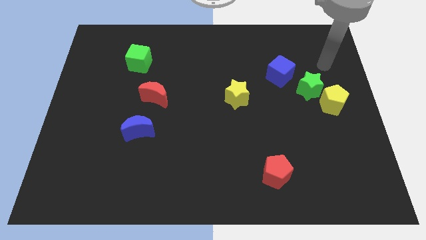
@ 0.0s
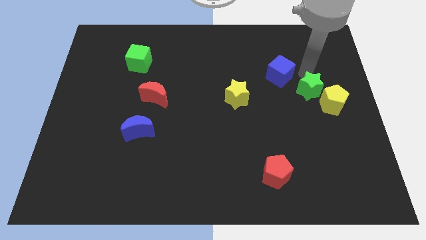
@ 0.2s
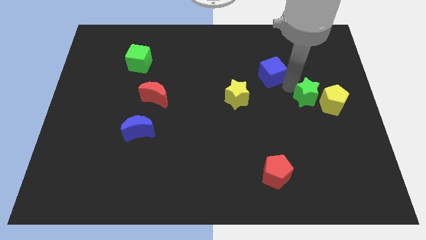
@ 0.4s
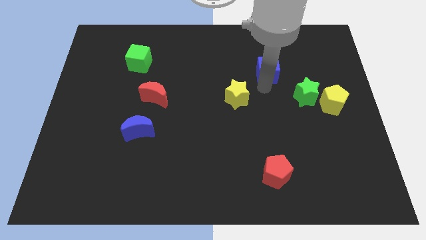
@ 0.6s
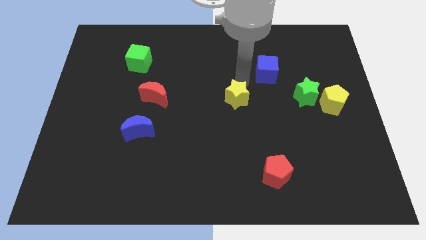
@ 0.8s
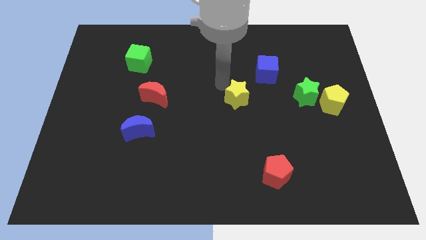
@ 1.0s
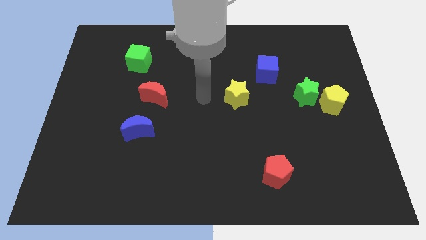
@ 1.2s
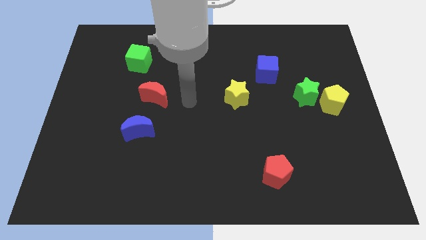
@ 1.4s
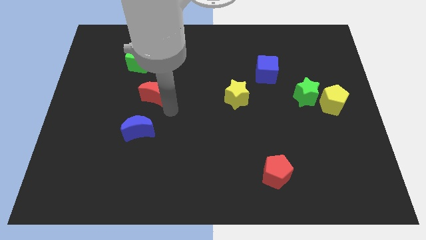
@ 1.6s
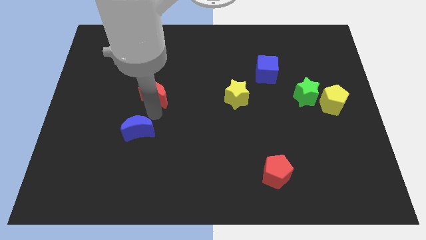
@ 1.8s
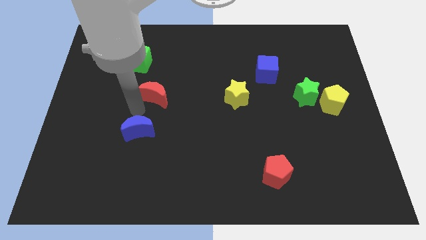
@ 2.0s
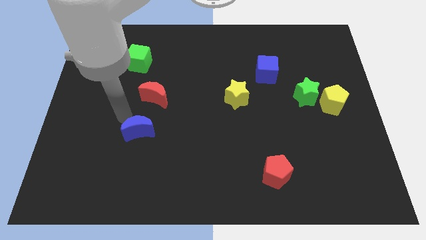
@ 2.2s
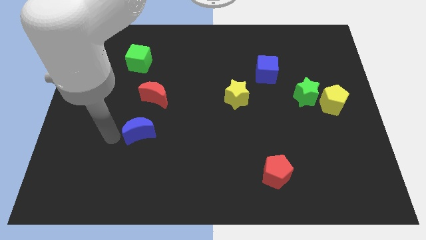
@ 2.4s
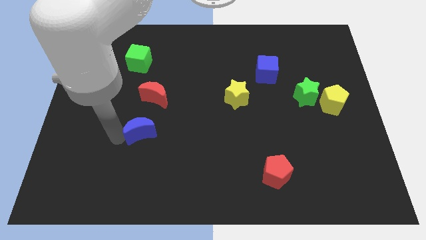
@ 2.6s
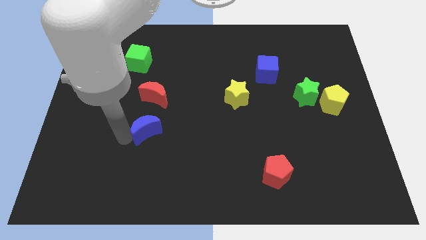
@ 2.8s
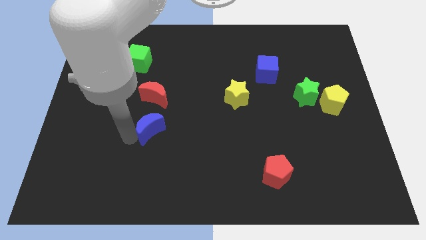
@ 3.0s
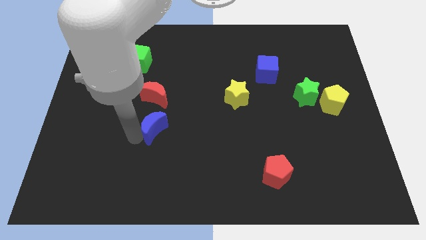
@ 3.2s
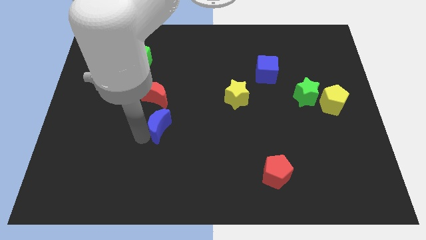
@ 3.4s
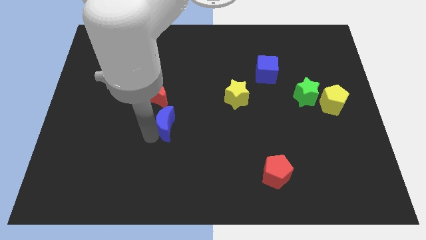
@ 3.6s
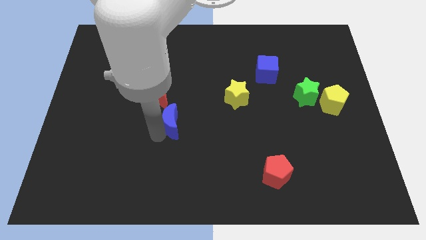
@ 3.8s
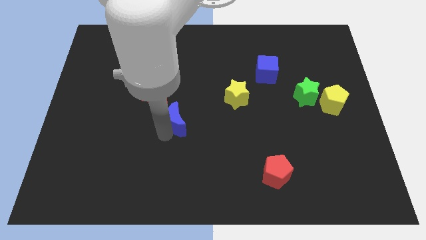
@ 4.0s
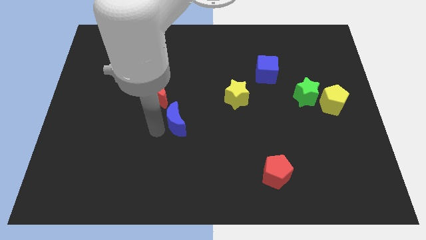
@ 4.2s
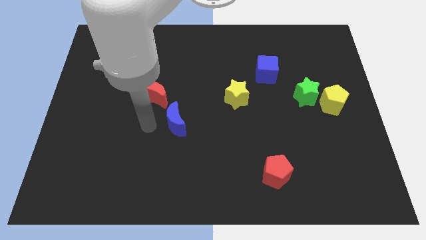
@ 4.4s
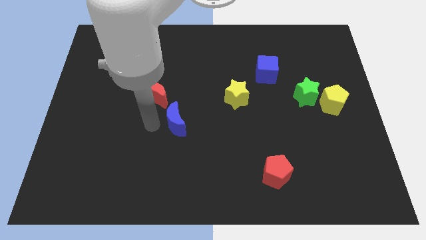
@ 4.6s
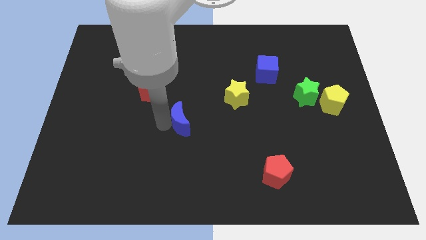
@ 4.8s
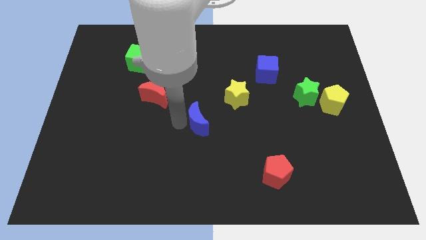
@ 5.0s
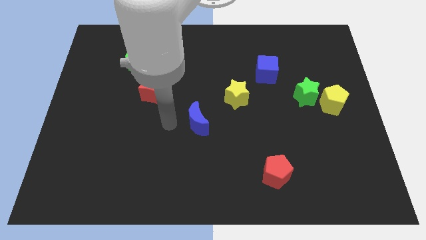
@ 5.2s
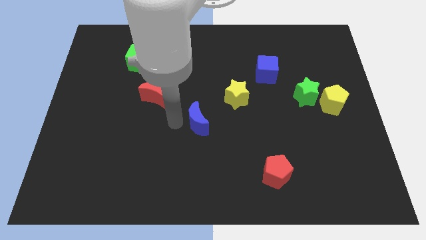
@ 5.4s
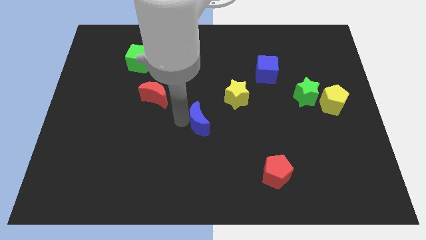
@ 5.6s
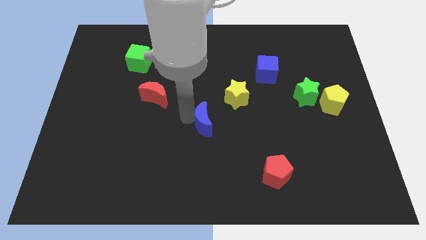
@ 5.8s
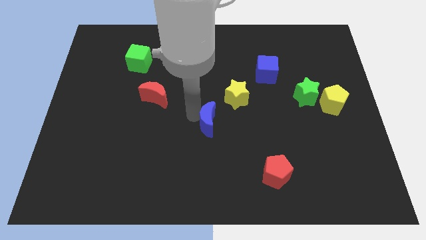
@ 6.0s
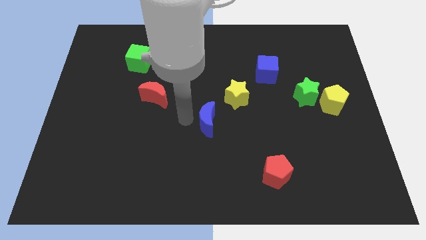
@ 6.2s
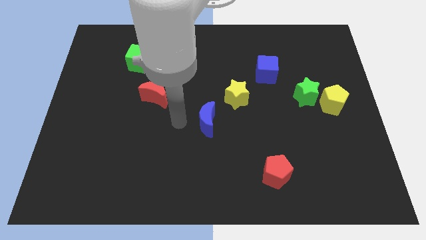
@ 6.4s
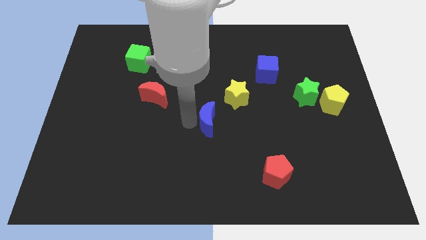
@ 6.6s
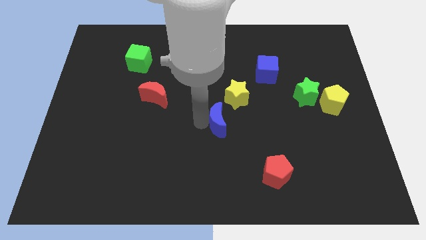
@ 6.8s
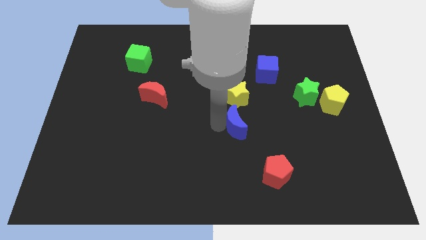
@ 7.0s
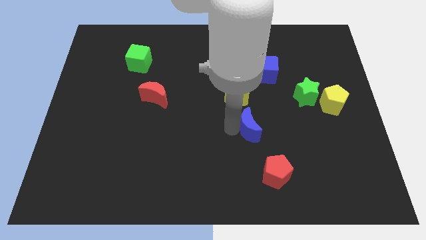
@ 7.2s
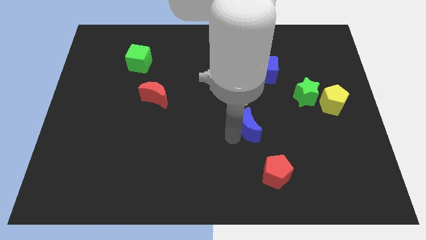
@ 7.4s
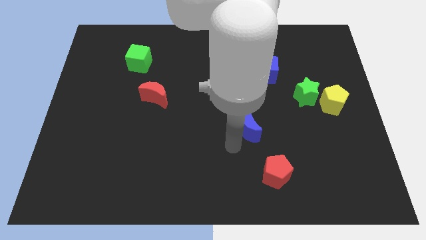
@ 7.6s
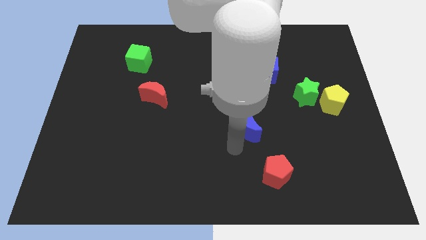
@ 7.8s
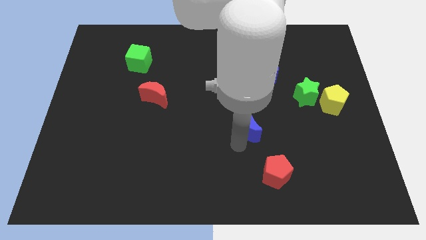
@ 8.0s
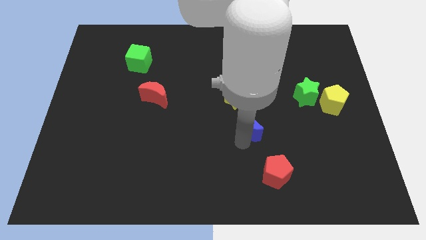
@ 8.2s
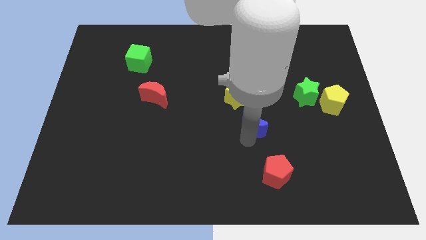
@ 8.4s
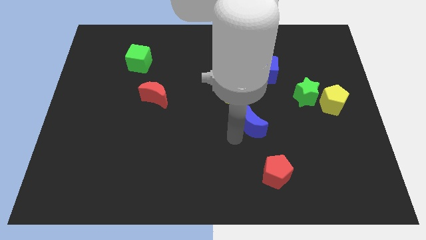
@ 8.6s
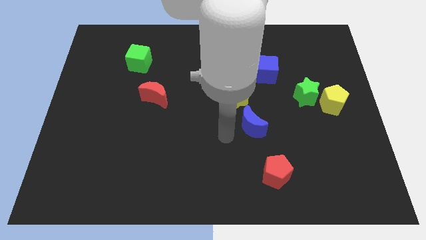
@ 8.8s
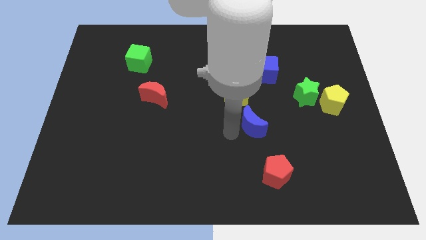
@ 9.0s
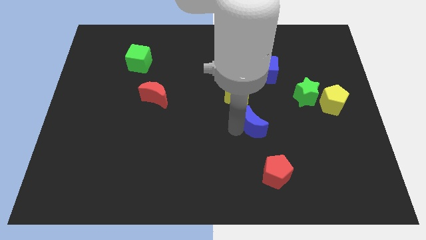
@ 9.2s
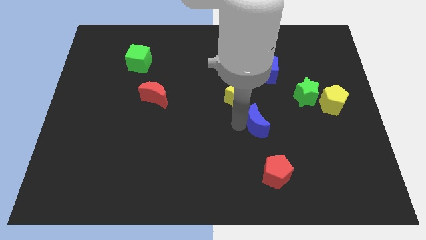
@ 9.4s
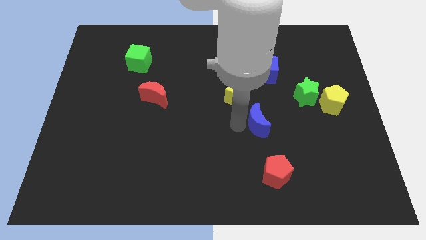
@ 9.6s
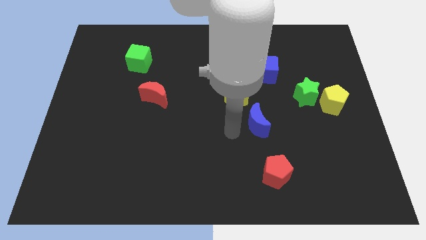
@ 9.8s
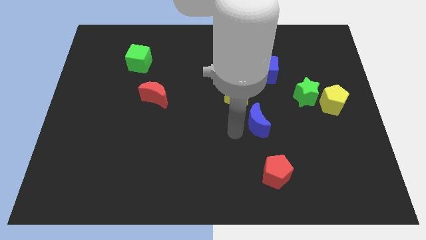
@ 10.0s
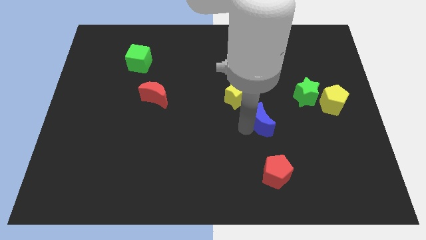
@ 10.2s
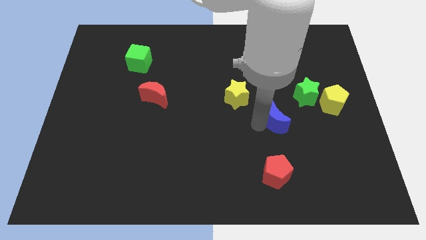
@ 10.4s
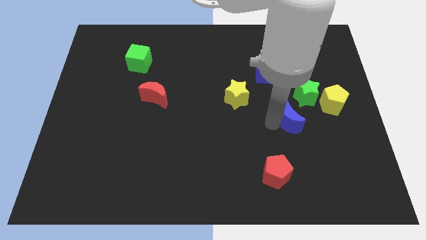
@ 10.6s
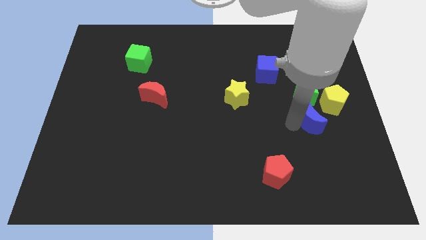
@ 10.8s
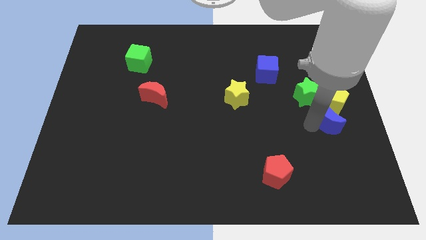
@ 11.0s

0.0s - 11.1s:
slide the blue moon to the yellow pentagon

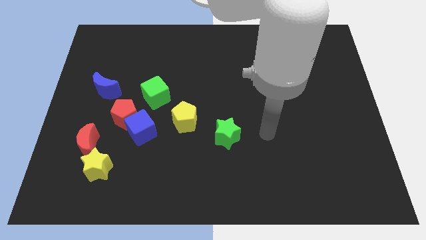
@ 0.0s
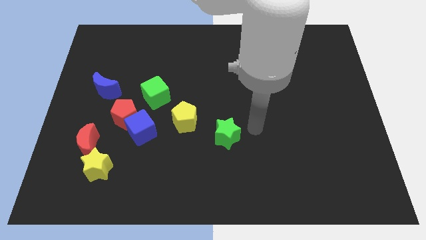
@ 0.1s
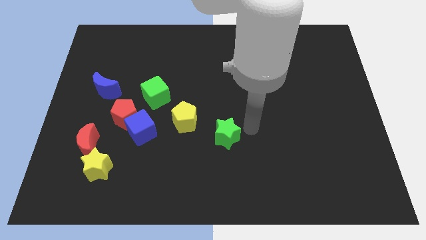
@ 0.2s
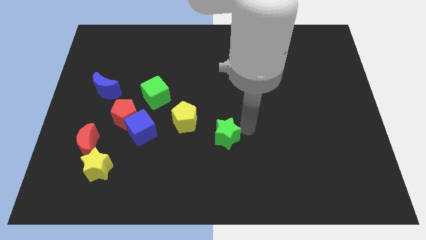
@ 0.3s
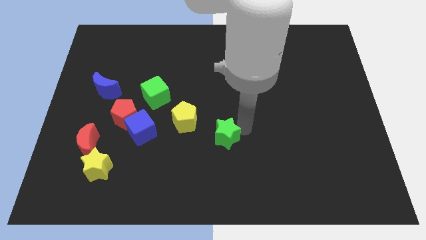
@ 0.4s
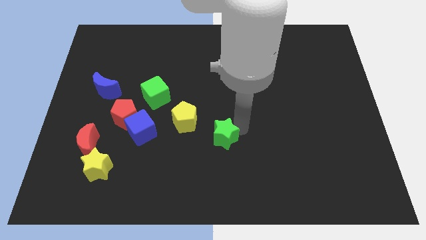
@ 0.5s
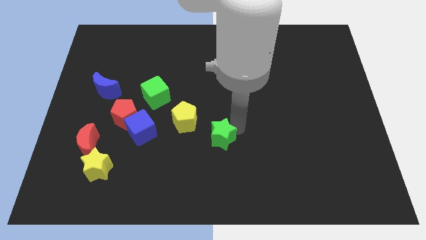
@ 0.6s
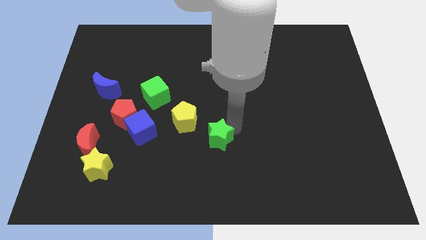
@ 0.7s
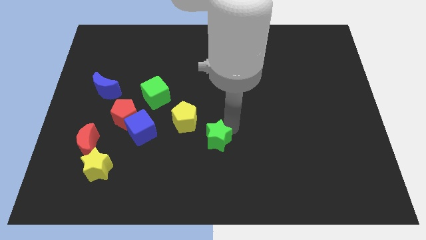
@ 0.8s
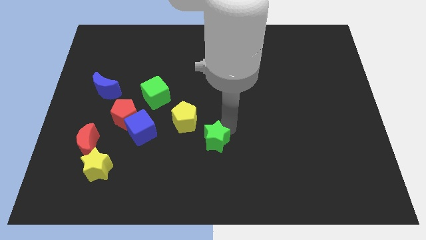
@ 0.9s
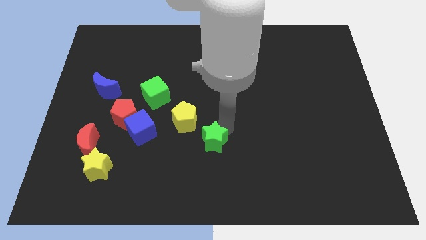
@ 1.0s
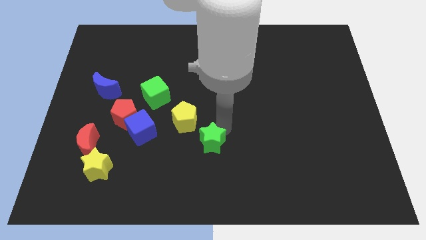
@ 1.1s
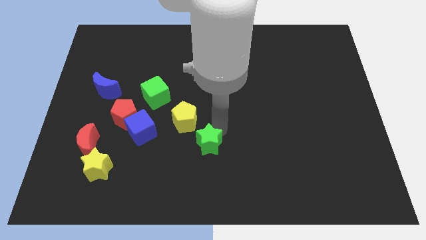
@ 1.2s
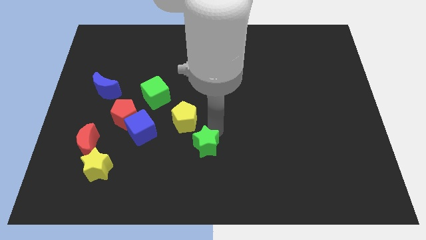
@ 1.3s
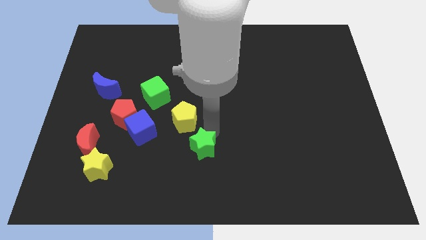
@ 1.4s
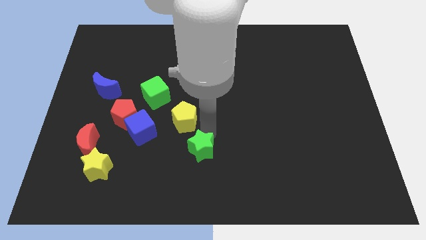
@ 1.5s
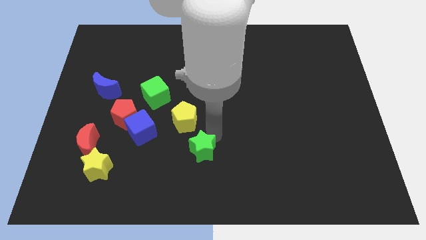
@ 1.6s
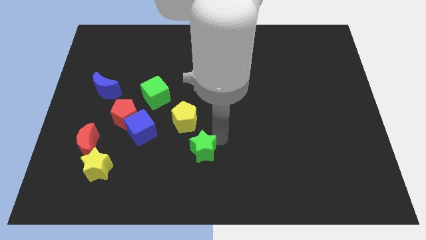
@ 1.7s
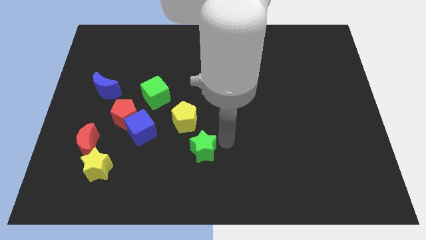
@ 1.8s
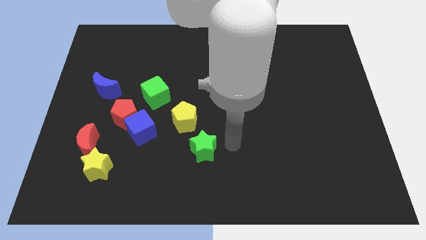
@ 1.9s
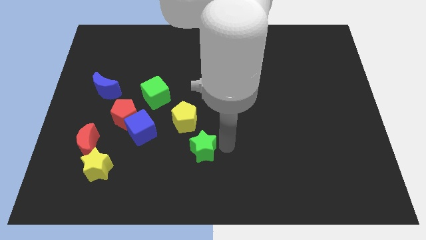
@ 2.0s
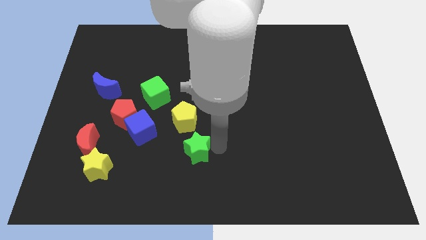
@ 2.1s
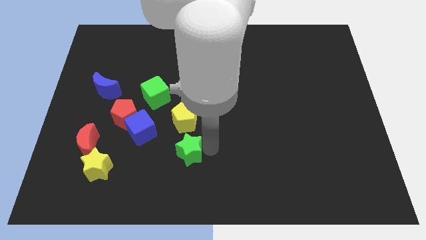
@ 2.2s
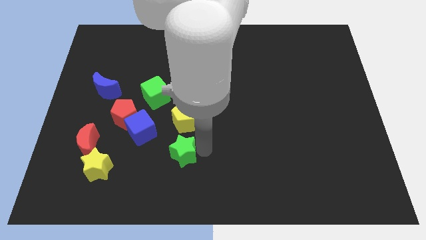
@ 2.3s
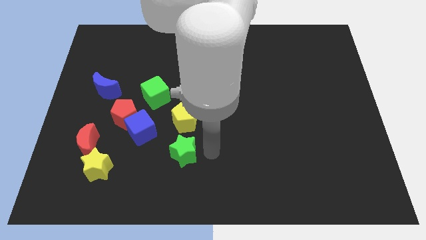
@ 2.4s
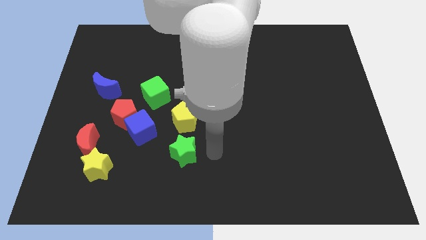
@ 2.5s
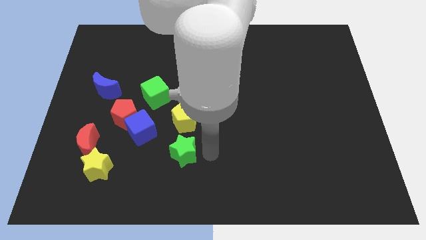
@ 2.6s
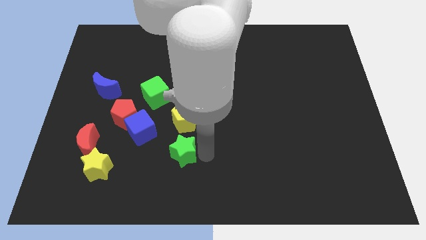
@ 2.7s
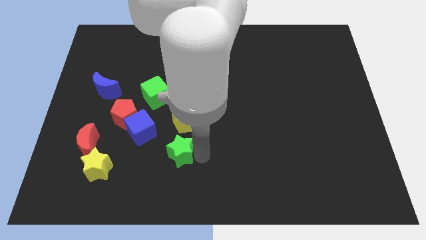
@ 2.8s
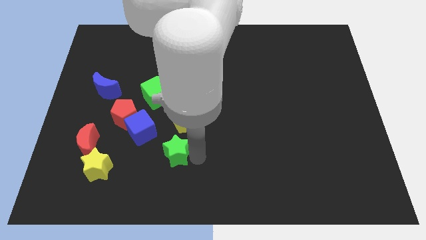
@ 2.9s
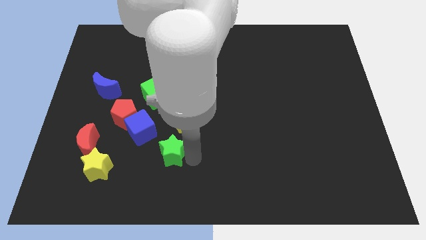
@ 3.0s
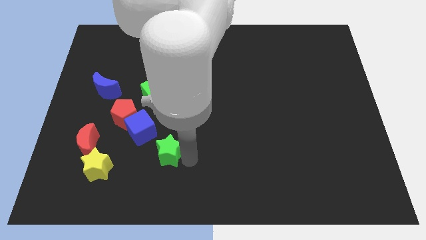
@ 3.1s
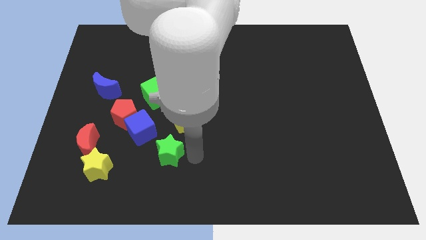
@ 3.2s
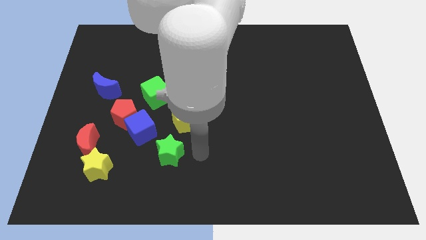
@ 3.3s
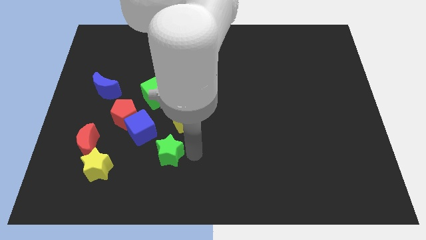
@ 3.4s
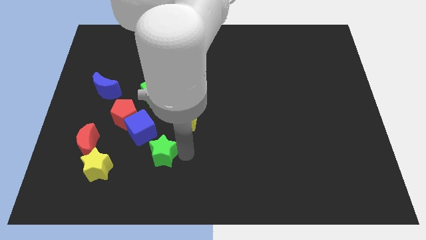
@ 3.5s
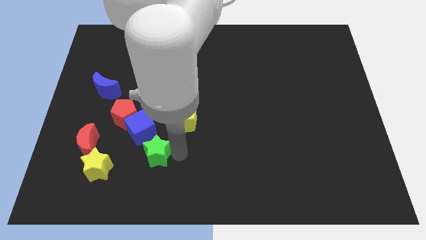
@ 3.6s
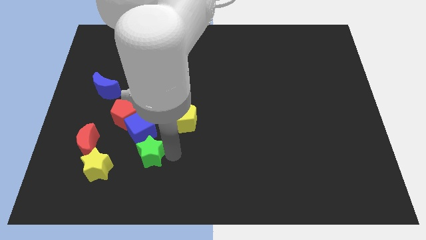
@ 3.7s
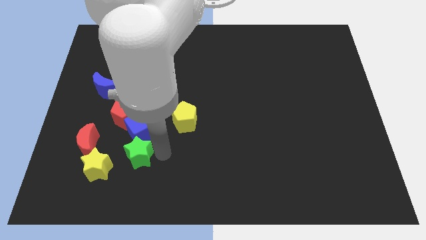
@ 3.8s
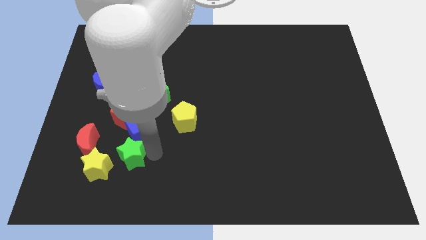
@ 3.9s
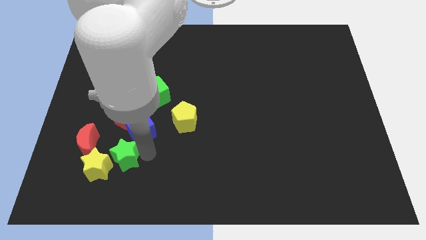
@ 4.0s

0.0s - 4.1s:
move the green star towards the yellow star
